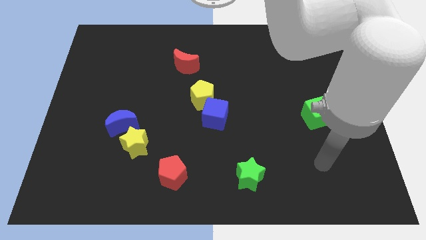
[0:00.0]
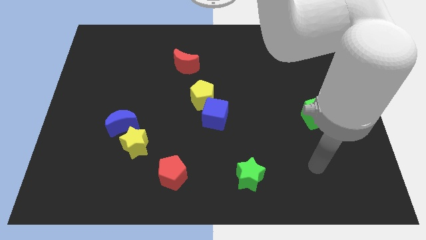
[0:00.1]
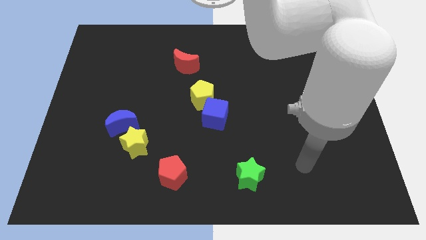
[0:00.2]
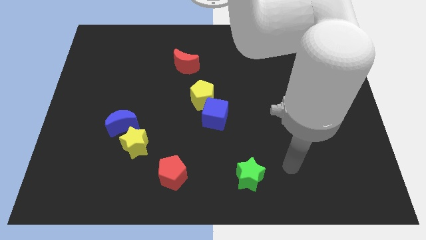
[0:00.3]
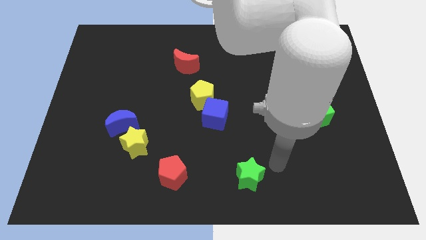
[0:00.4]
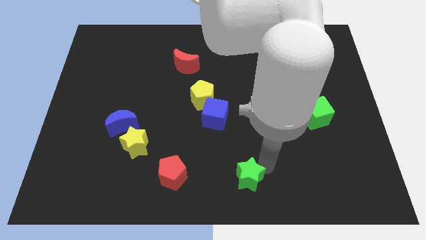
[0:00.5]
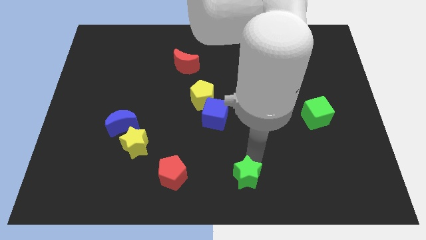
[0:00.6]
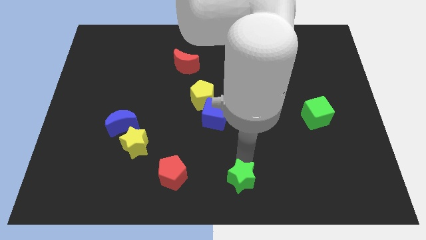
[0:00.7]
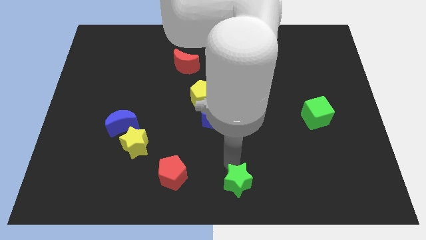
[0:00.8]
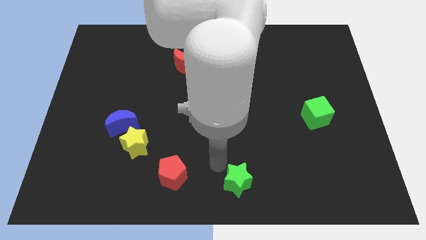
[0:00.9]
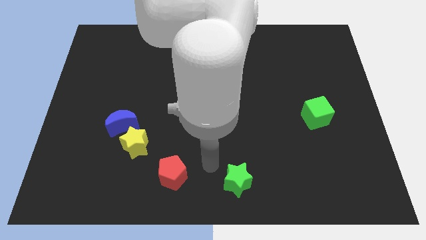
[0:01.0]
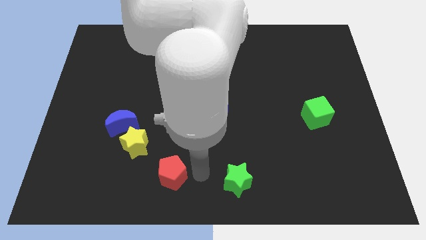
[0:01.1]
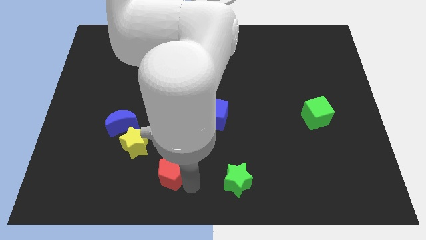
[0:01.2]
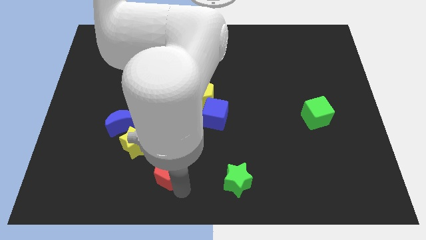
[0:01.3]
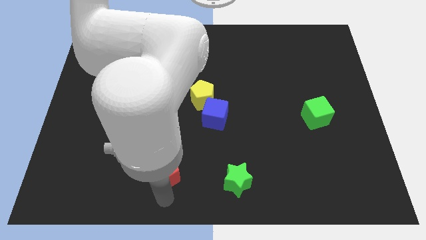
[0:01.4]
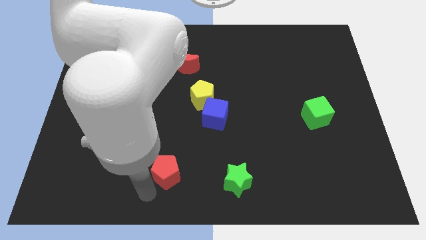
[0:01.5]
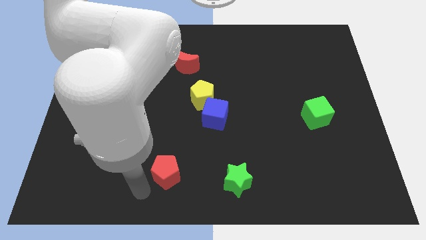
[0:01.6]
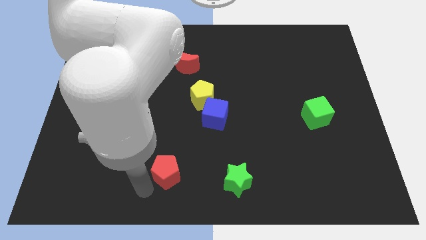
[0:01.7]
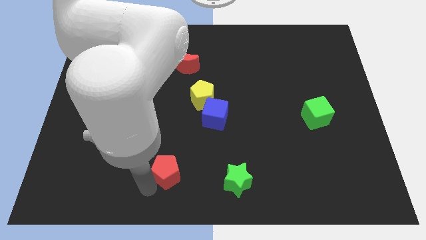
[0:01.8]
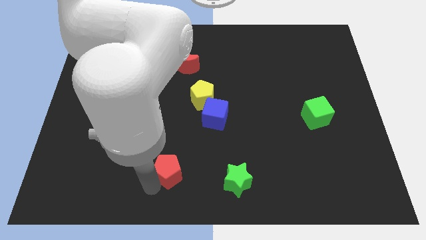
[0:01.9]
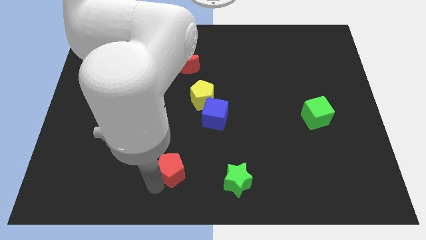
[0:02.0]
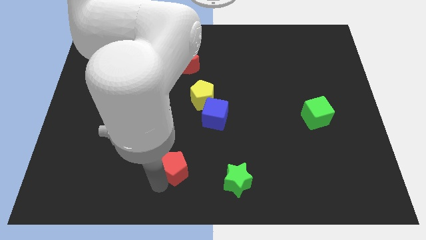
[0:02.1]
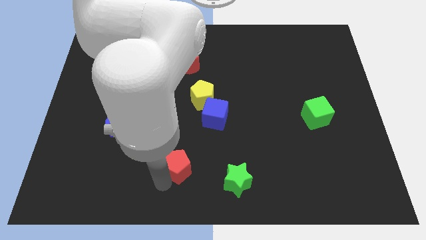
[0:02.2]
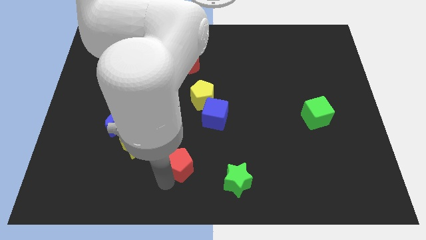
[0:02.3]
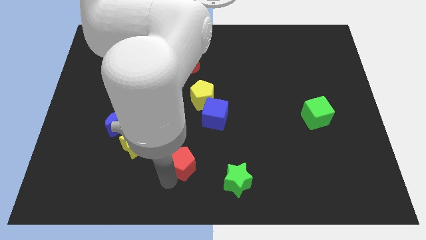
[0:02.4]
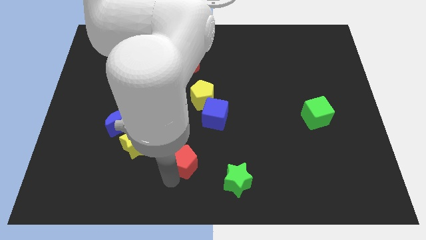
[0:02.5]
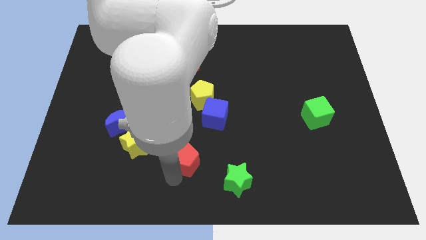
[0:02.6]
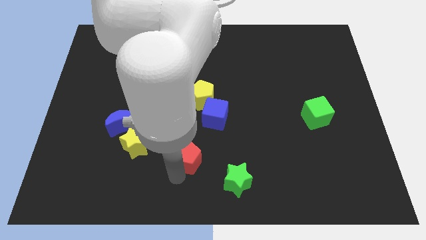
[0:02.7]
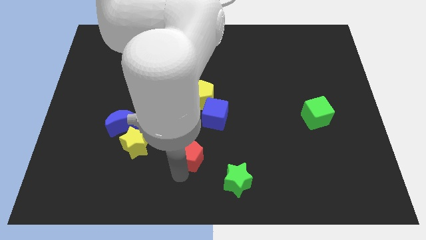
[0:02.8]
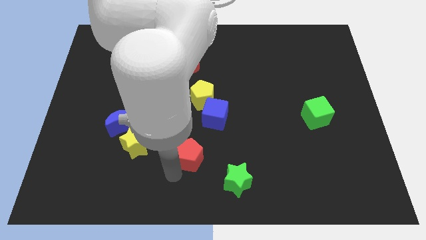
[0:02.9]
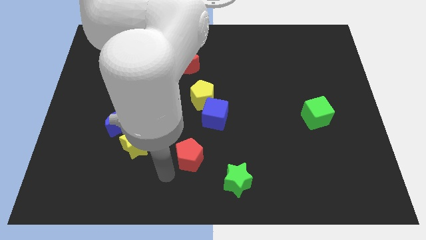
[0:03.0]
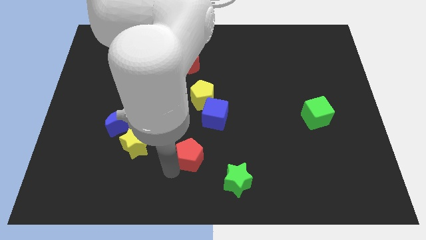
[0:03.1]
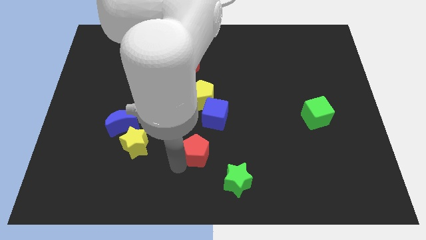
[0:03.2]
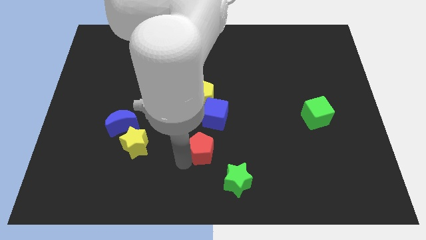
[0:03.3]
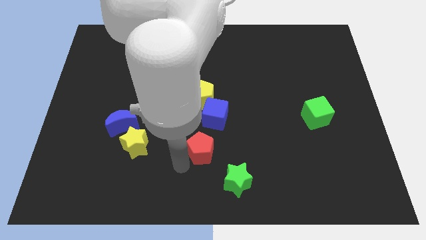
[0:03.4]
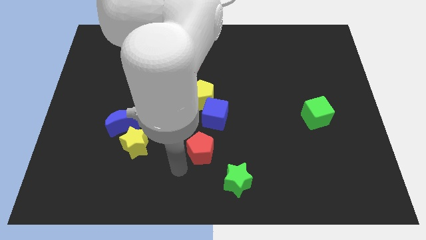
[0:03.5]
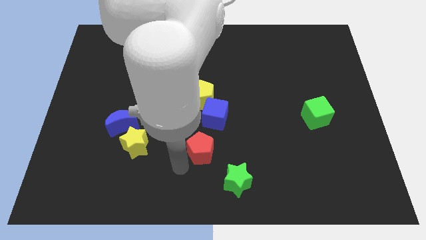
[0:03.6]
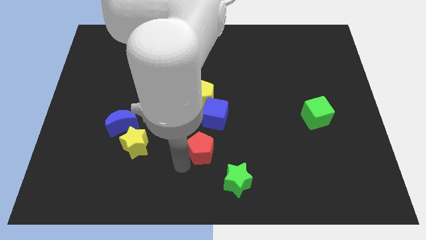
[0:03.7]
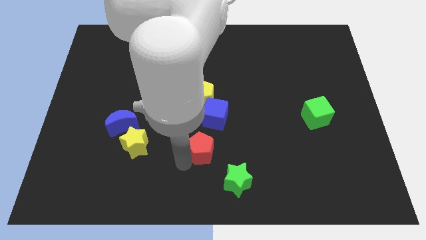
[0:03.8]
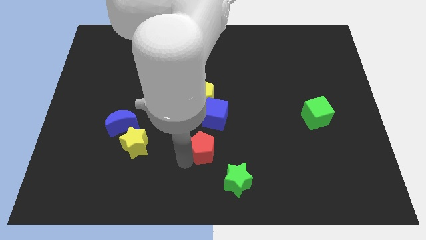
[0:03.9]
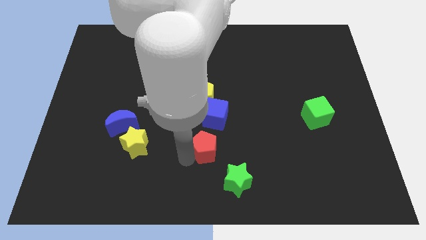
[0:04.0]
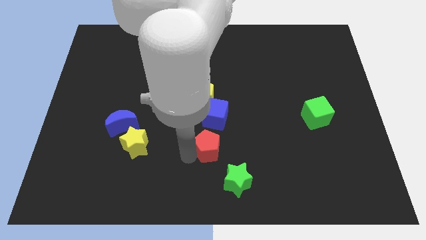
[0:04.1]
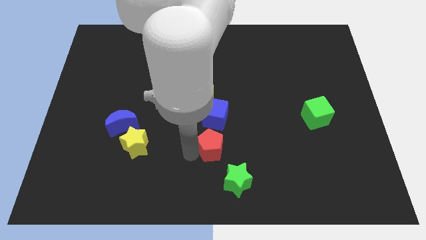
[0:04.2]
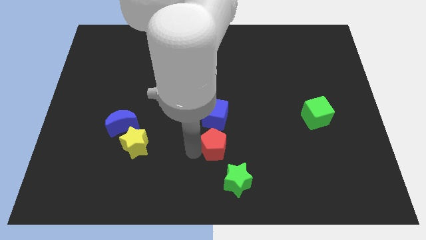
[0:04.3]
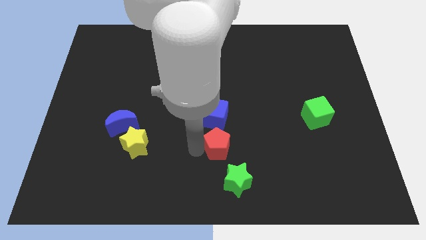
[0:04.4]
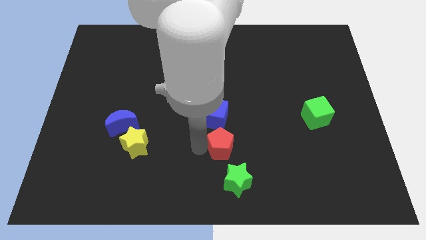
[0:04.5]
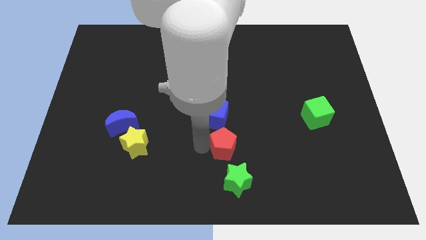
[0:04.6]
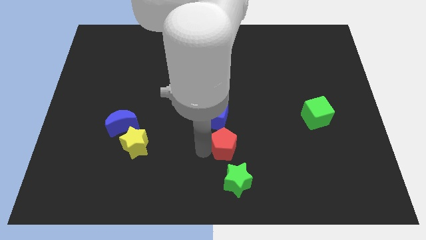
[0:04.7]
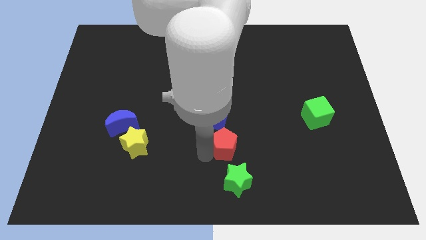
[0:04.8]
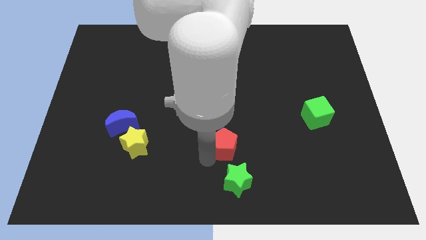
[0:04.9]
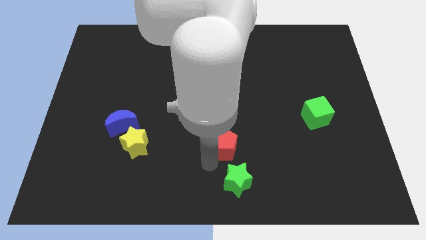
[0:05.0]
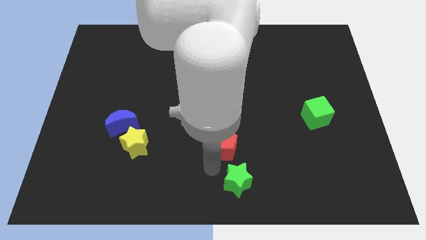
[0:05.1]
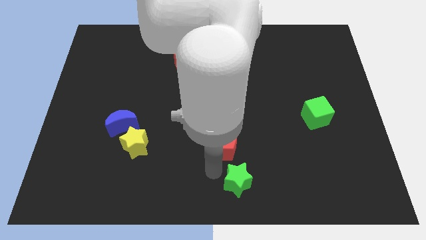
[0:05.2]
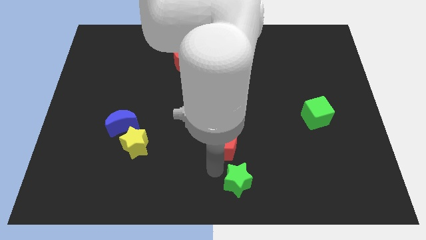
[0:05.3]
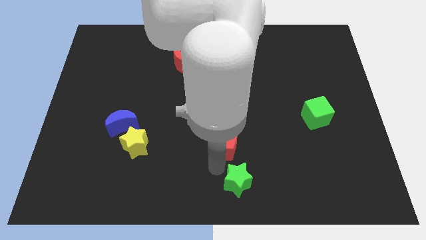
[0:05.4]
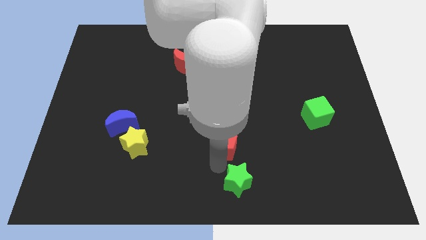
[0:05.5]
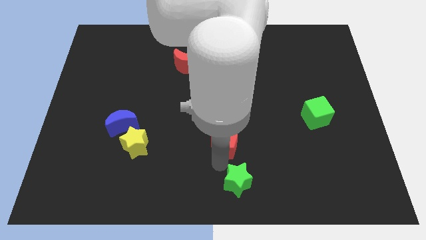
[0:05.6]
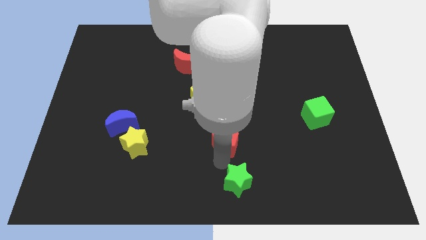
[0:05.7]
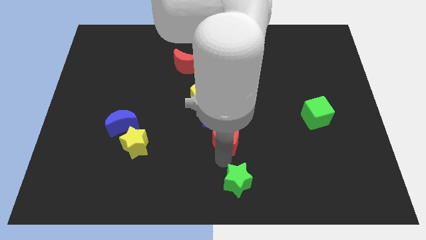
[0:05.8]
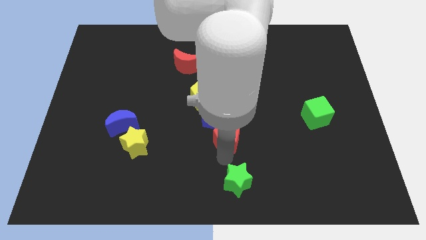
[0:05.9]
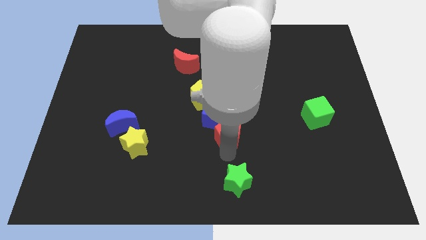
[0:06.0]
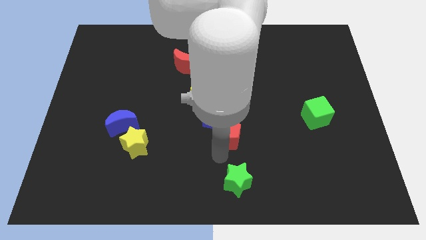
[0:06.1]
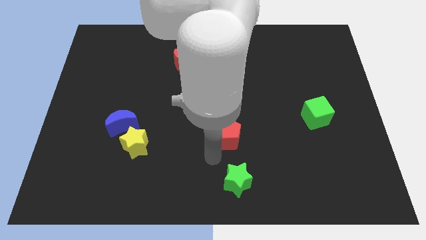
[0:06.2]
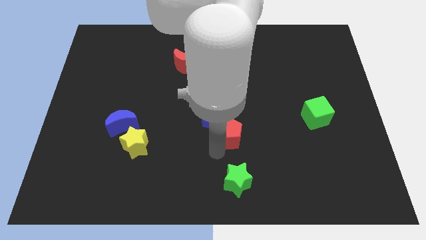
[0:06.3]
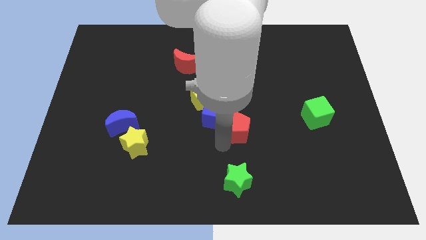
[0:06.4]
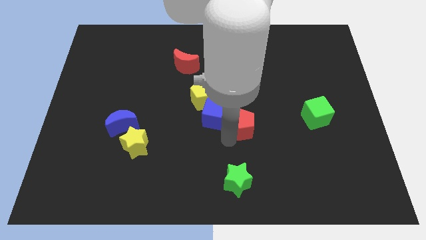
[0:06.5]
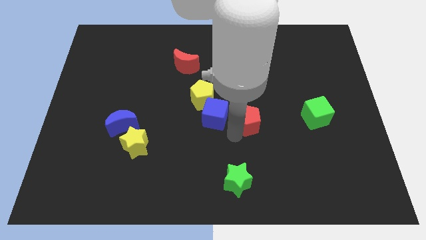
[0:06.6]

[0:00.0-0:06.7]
move the red pentagon upwards and then to the right

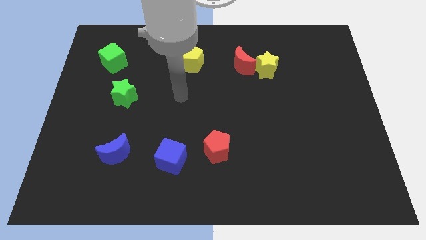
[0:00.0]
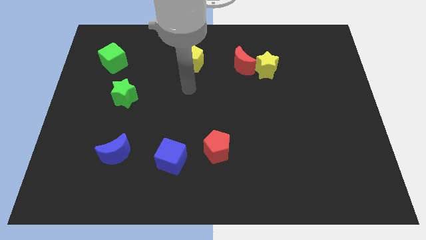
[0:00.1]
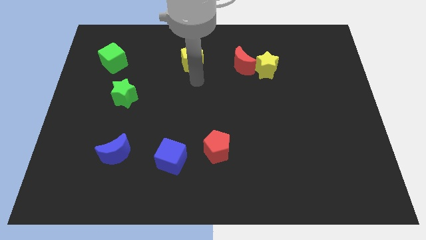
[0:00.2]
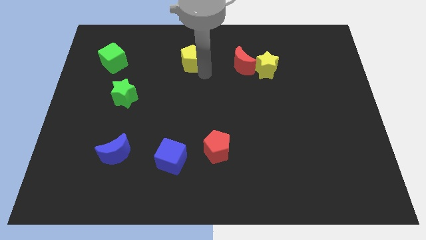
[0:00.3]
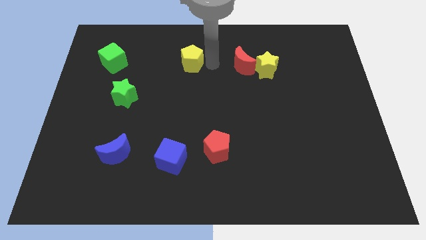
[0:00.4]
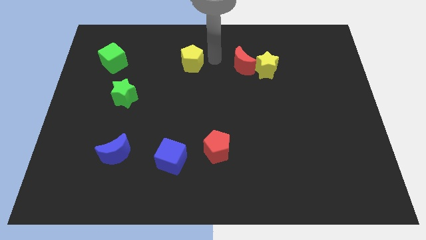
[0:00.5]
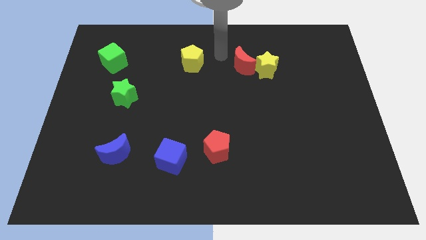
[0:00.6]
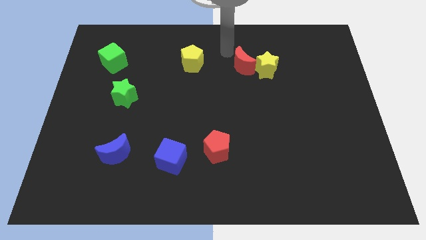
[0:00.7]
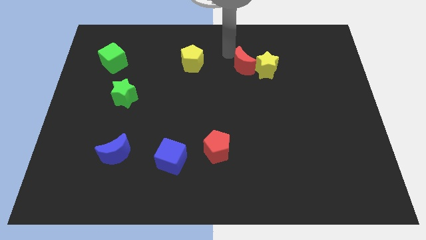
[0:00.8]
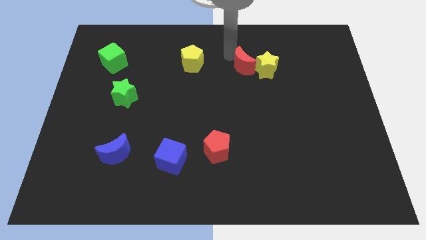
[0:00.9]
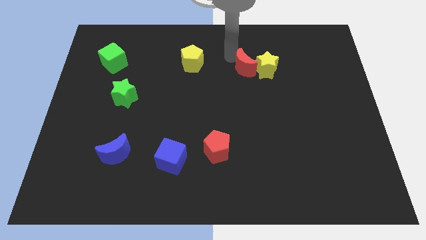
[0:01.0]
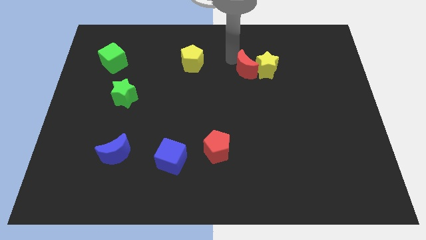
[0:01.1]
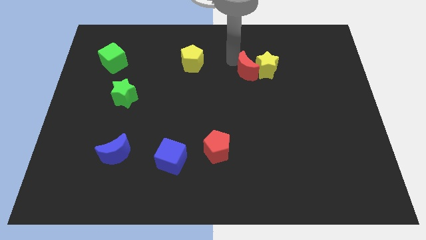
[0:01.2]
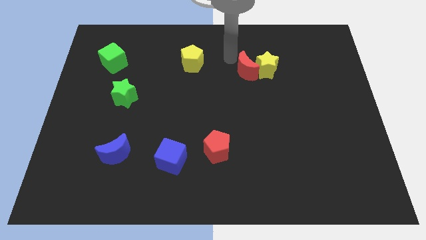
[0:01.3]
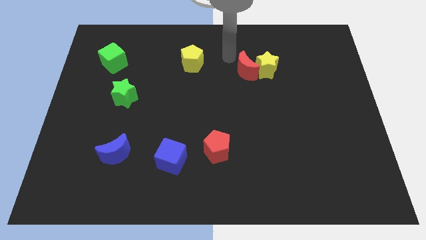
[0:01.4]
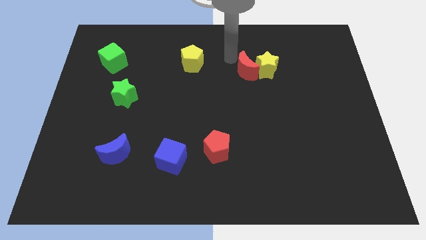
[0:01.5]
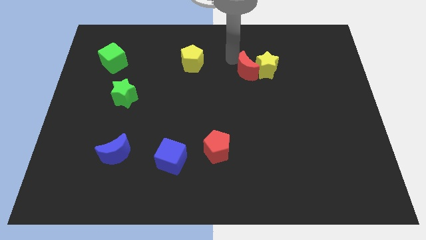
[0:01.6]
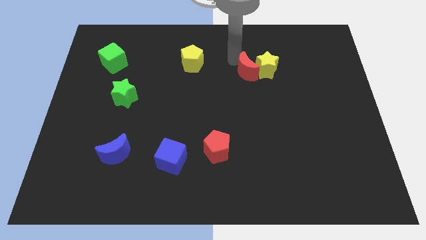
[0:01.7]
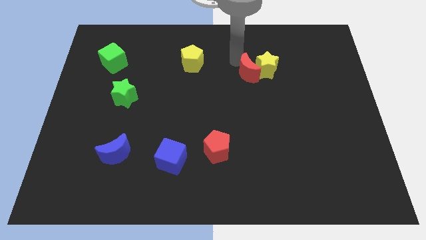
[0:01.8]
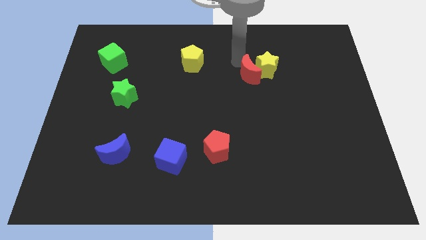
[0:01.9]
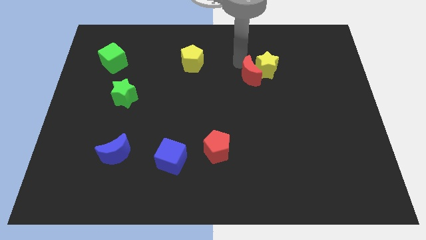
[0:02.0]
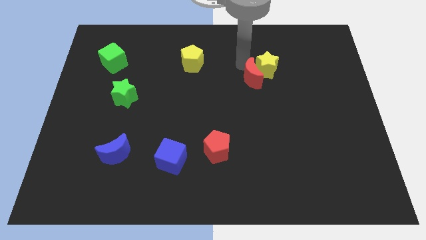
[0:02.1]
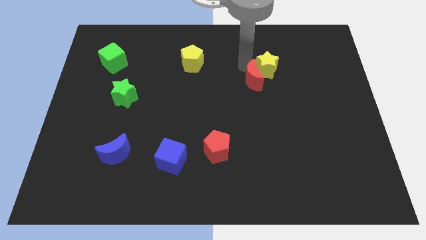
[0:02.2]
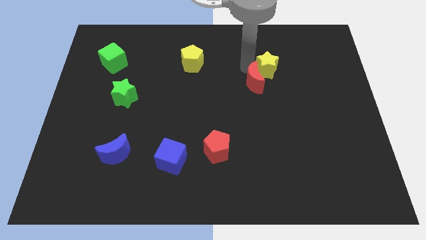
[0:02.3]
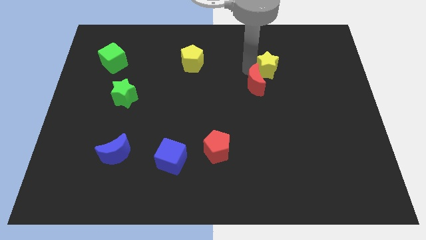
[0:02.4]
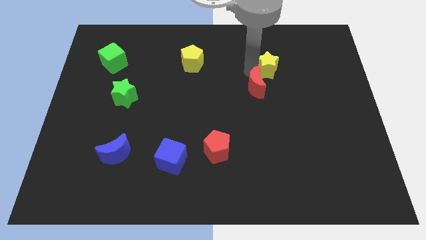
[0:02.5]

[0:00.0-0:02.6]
move the red moon a bit downwards and right diagonally
